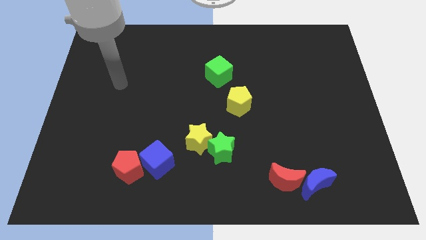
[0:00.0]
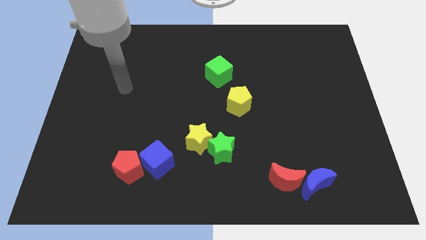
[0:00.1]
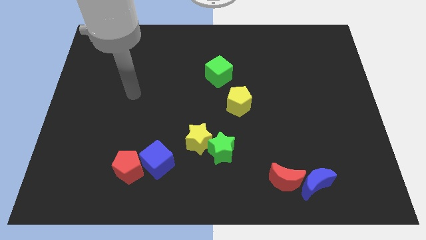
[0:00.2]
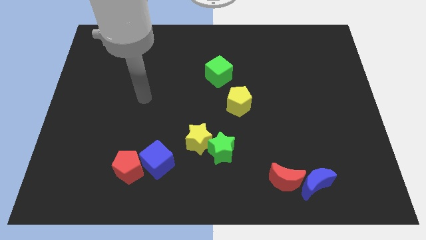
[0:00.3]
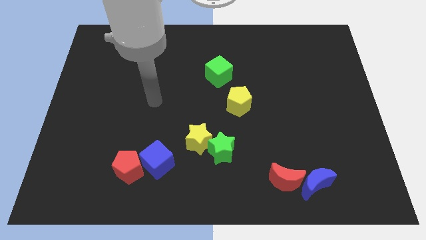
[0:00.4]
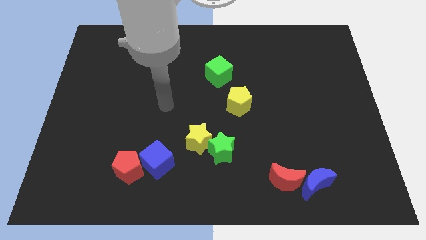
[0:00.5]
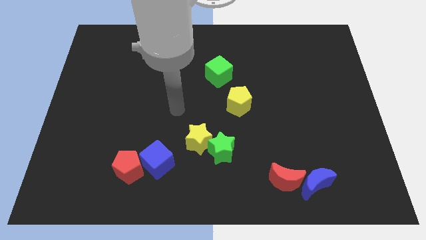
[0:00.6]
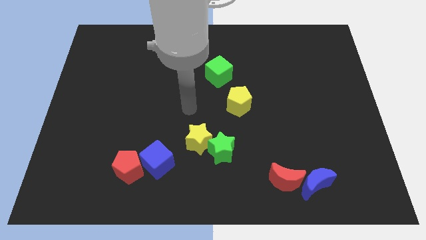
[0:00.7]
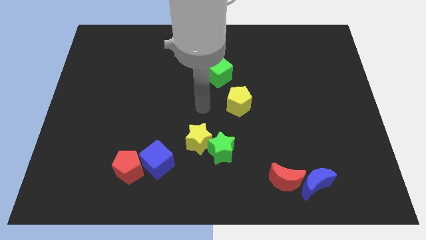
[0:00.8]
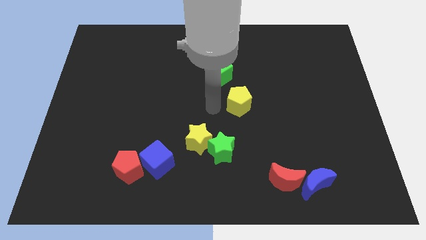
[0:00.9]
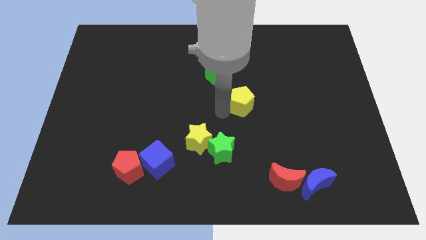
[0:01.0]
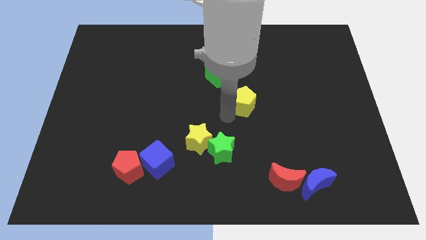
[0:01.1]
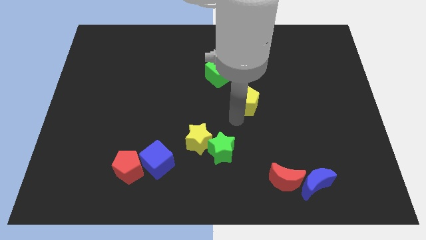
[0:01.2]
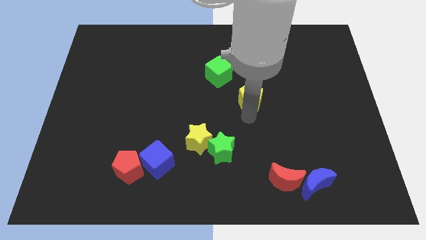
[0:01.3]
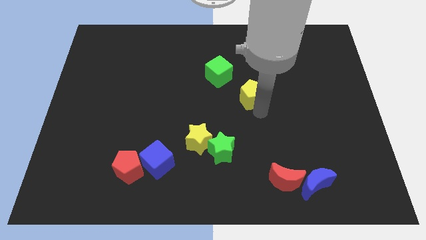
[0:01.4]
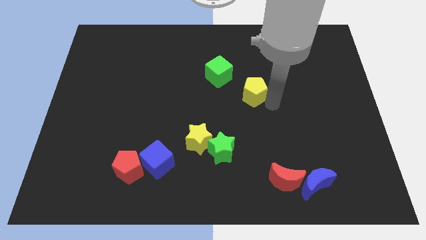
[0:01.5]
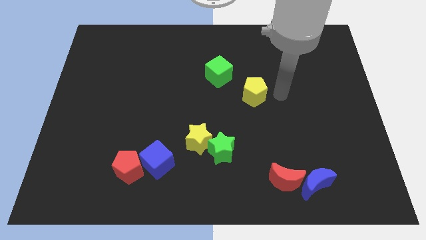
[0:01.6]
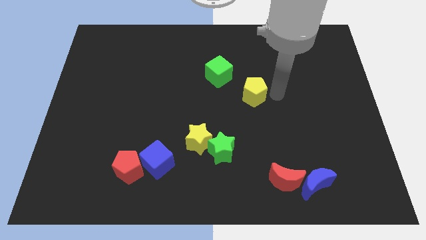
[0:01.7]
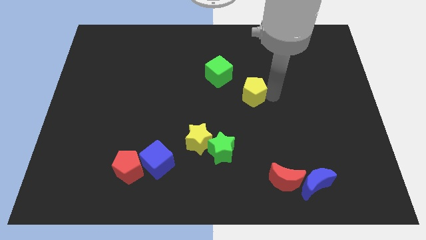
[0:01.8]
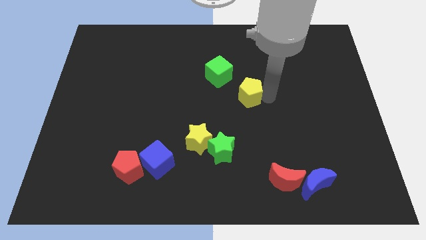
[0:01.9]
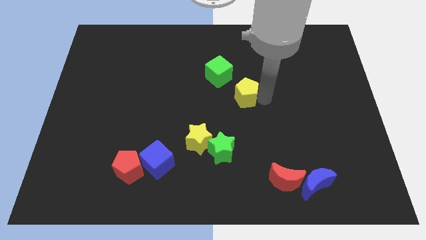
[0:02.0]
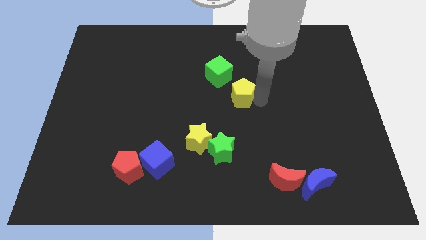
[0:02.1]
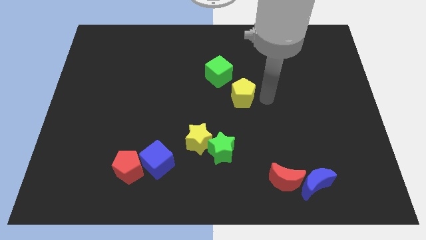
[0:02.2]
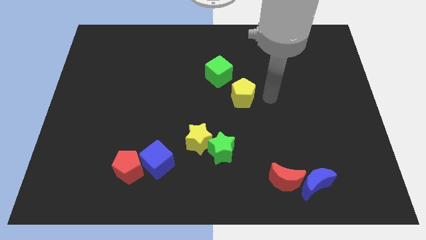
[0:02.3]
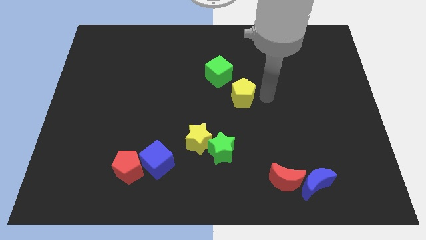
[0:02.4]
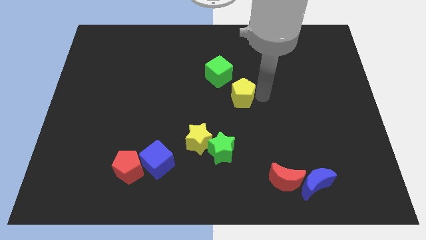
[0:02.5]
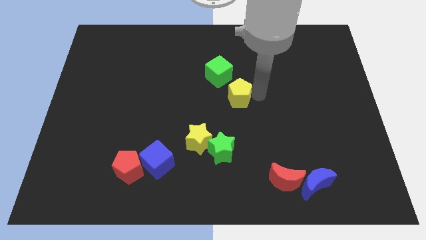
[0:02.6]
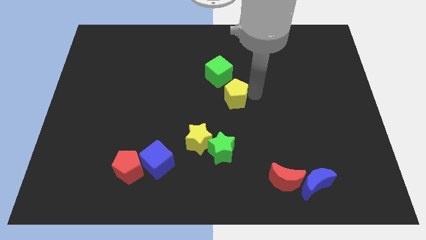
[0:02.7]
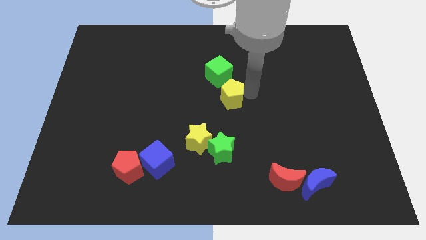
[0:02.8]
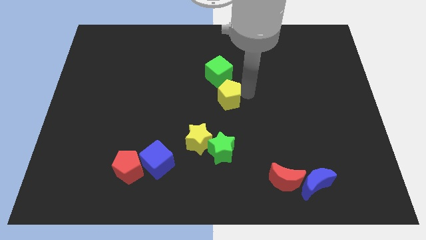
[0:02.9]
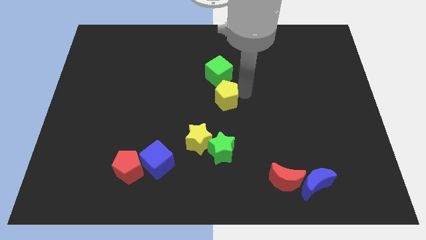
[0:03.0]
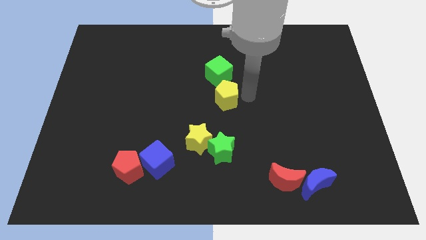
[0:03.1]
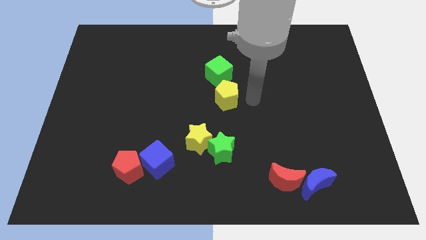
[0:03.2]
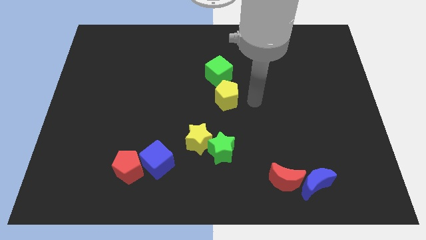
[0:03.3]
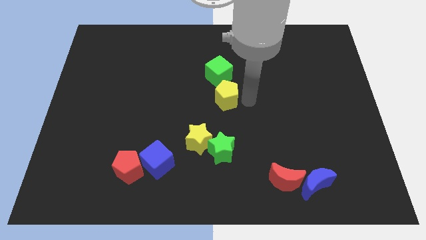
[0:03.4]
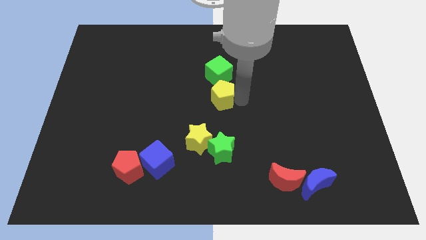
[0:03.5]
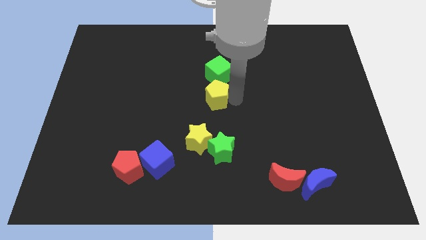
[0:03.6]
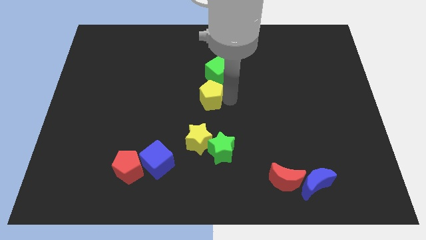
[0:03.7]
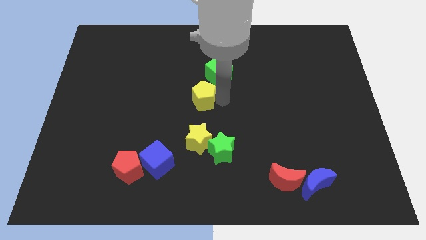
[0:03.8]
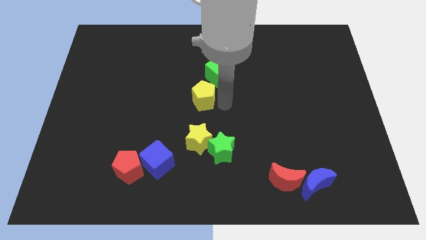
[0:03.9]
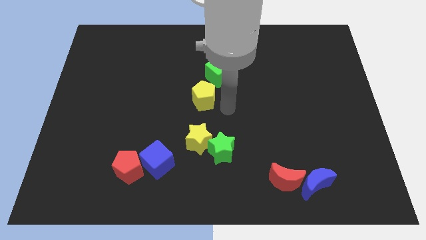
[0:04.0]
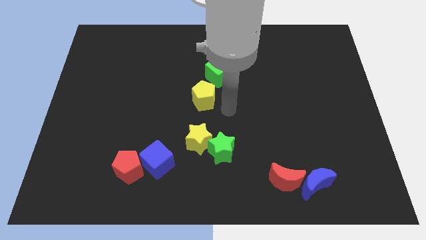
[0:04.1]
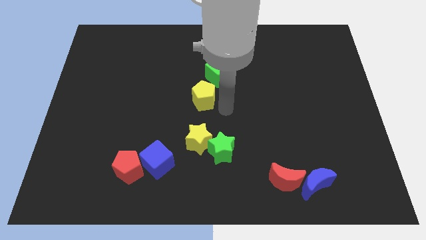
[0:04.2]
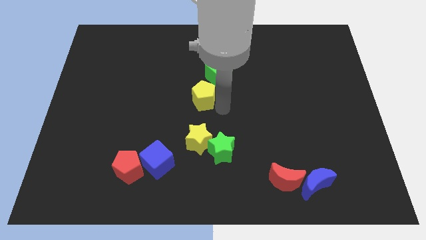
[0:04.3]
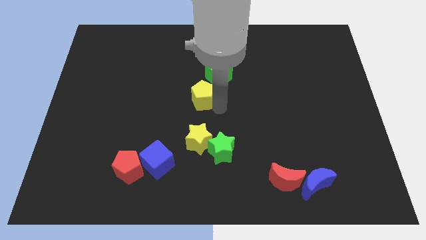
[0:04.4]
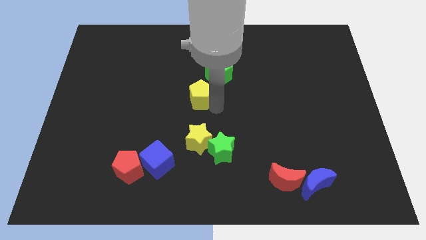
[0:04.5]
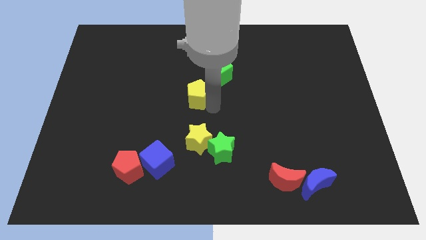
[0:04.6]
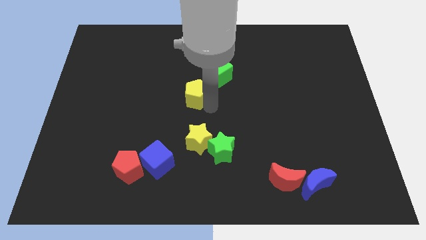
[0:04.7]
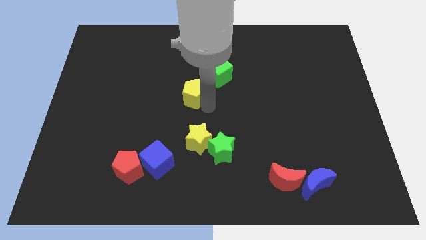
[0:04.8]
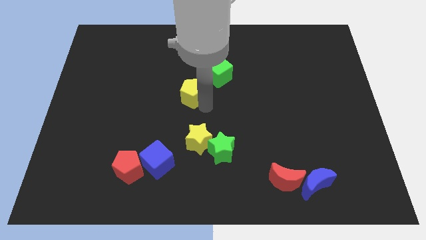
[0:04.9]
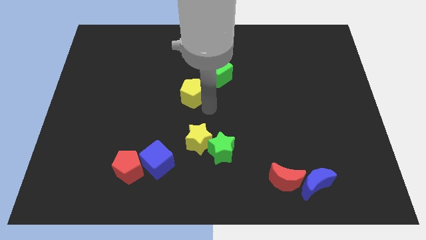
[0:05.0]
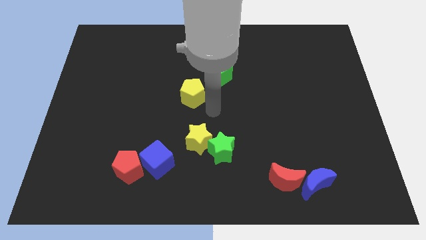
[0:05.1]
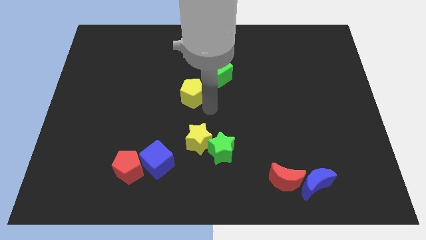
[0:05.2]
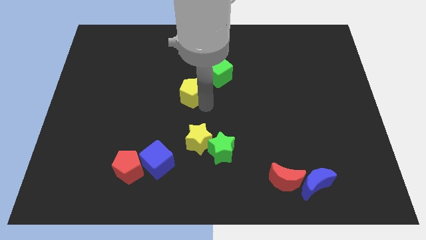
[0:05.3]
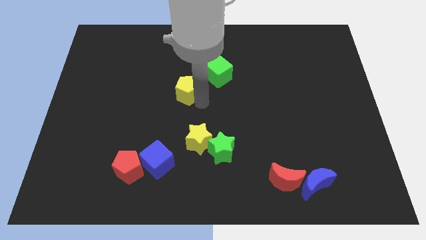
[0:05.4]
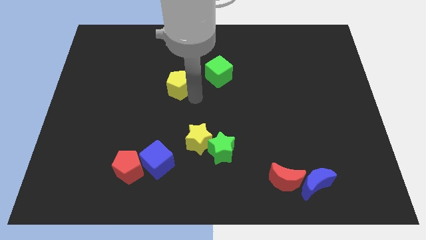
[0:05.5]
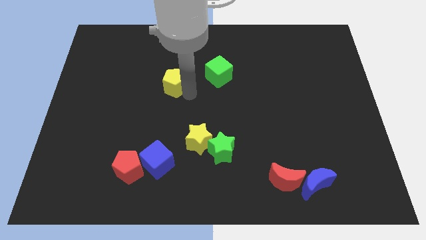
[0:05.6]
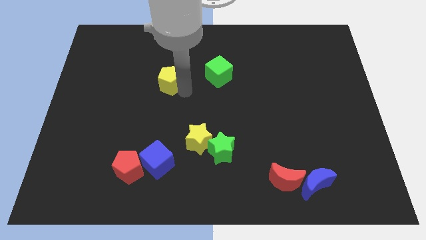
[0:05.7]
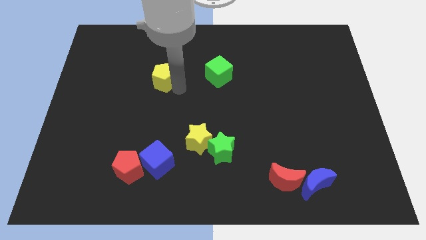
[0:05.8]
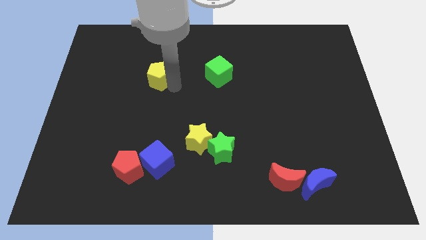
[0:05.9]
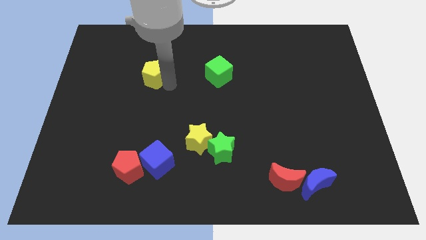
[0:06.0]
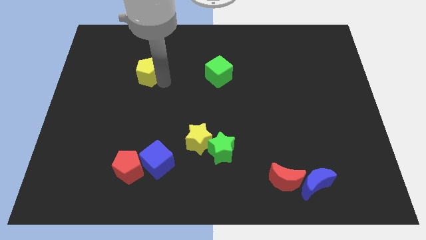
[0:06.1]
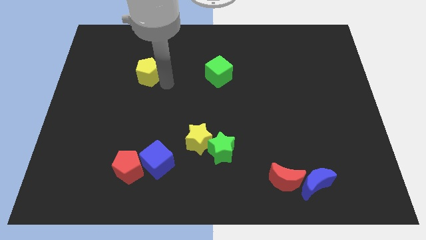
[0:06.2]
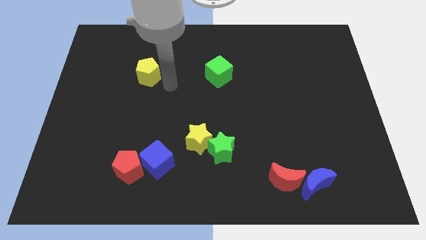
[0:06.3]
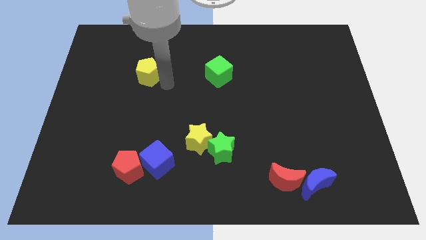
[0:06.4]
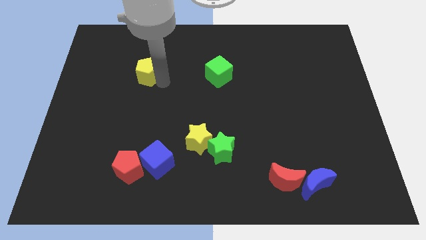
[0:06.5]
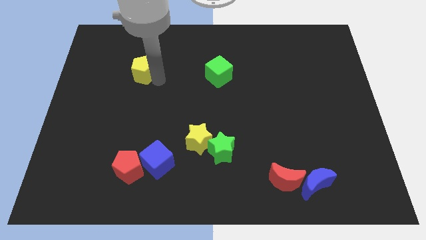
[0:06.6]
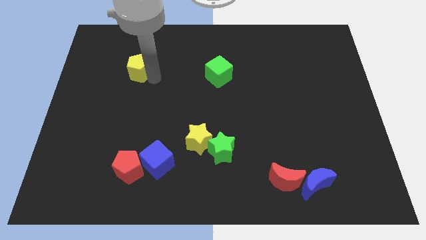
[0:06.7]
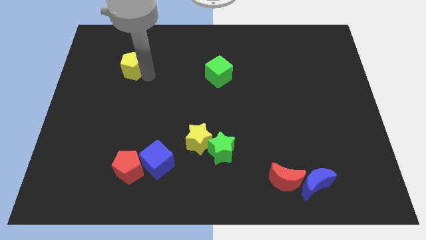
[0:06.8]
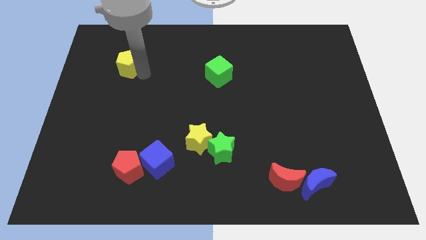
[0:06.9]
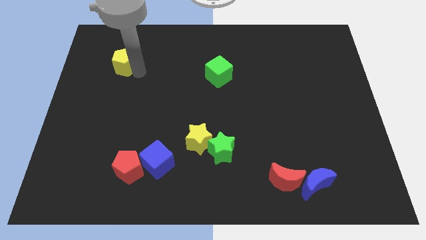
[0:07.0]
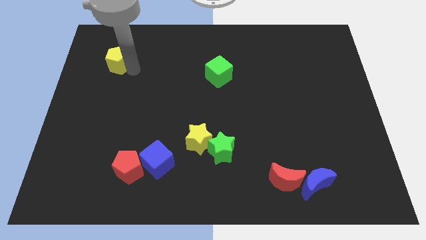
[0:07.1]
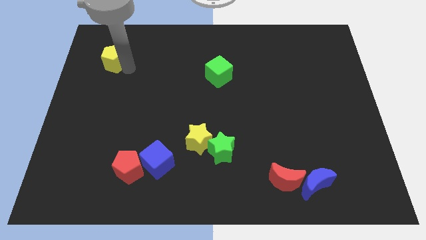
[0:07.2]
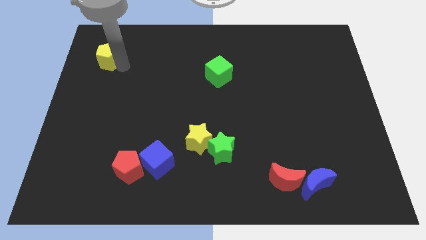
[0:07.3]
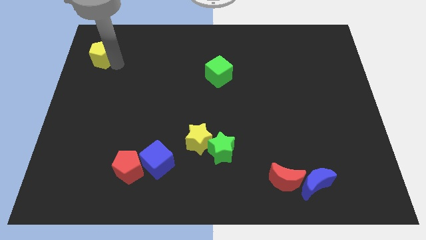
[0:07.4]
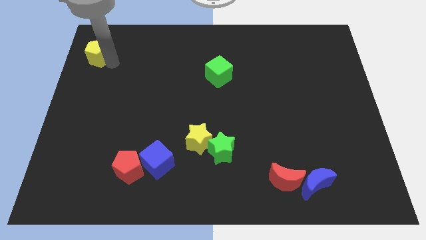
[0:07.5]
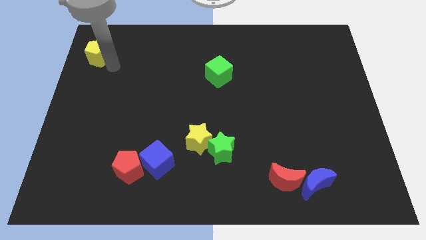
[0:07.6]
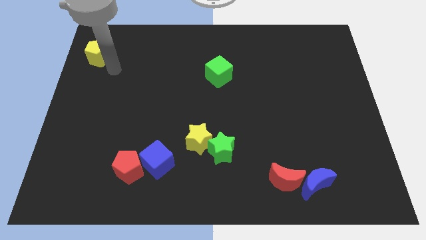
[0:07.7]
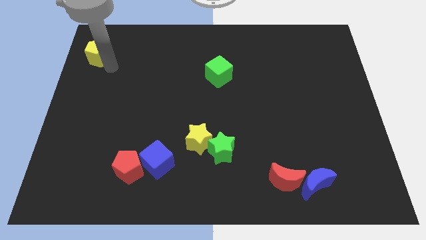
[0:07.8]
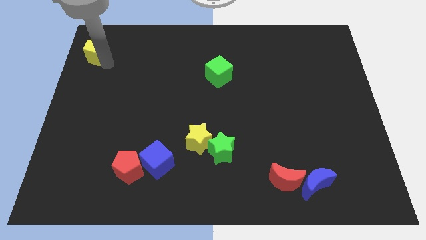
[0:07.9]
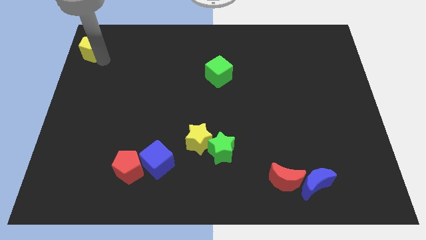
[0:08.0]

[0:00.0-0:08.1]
move the yellow pentagon to the top left corner
